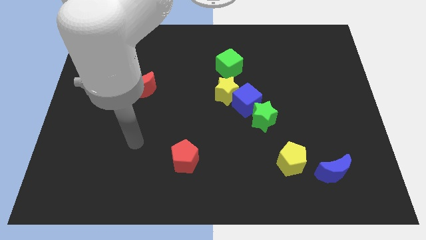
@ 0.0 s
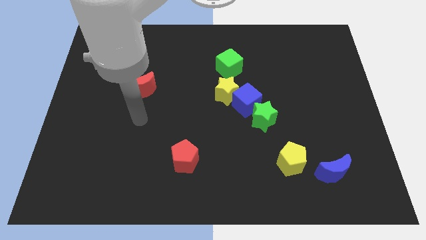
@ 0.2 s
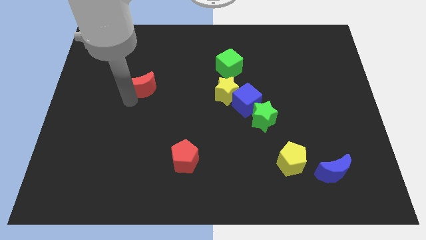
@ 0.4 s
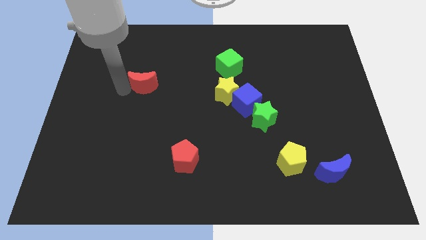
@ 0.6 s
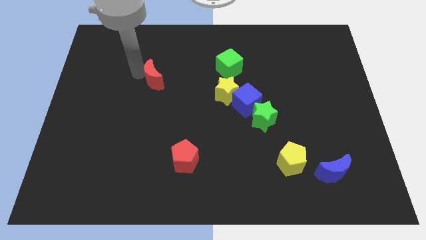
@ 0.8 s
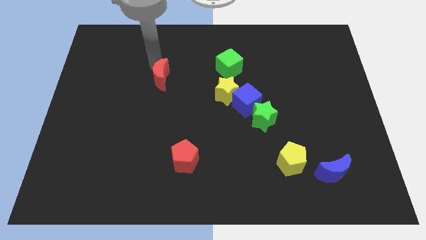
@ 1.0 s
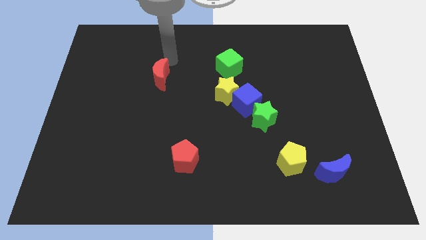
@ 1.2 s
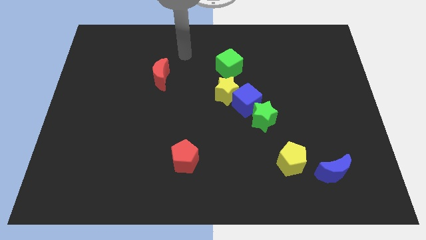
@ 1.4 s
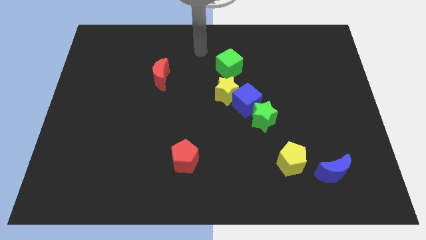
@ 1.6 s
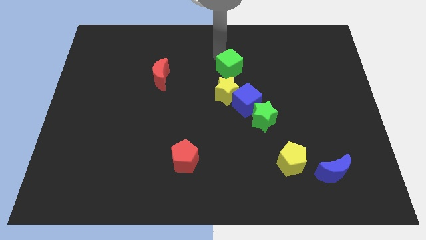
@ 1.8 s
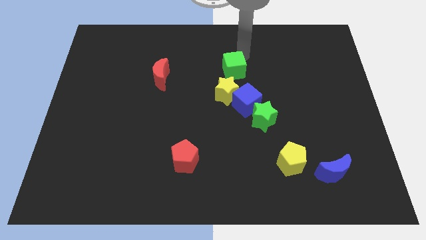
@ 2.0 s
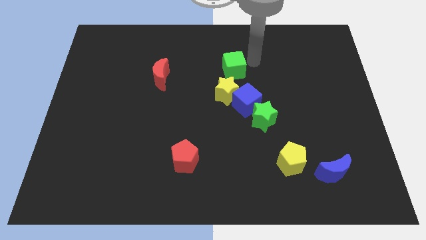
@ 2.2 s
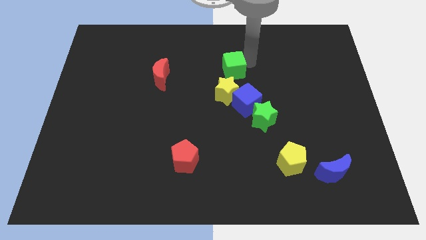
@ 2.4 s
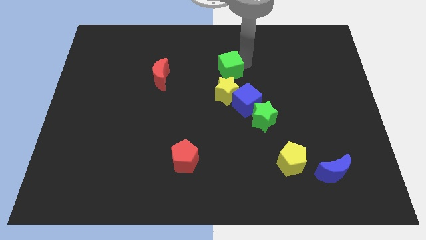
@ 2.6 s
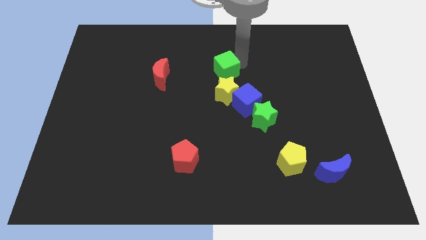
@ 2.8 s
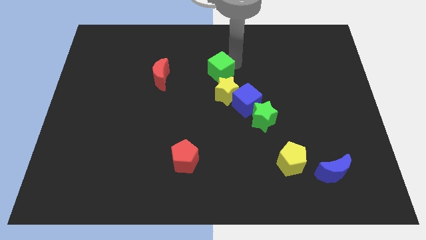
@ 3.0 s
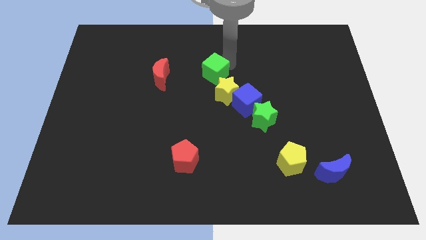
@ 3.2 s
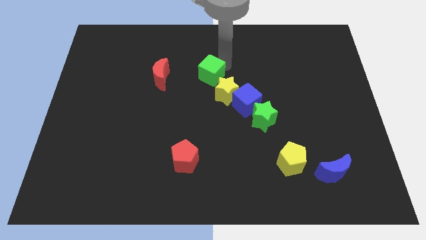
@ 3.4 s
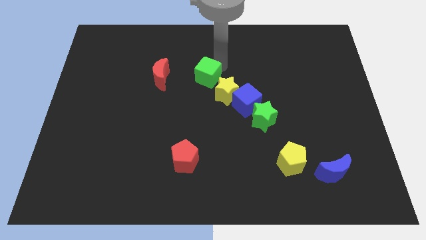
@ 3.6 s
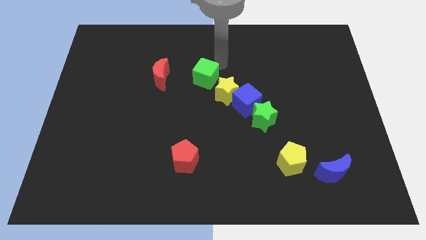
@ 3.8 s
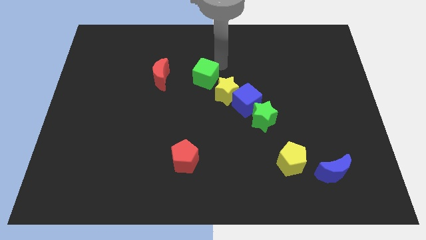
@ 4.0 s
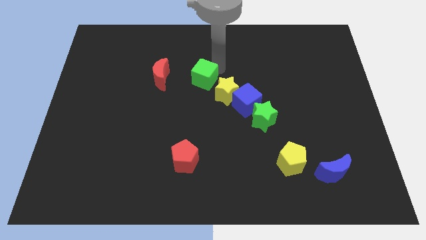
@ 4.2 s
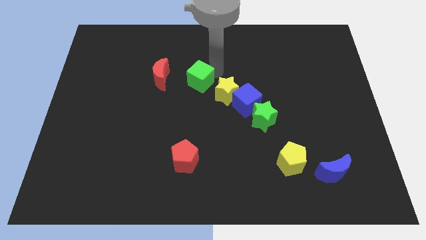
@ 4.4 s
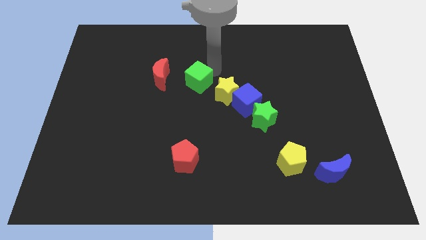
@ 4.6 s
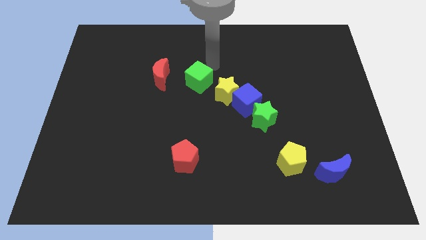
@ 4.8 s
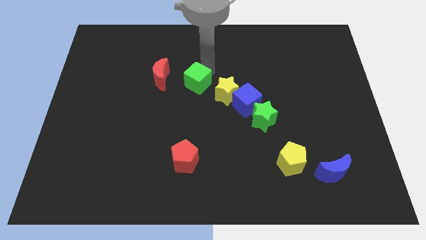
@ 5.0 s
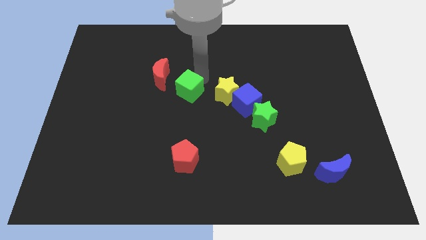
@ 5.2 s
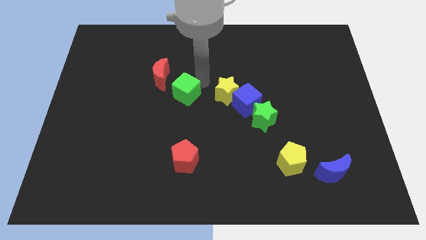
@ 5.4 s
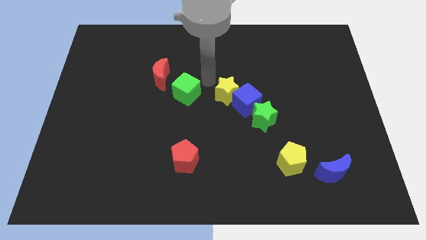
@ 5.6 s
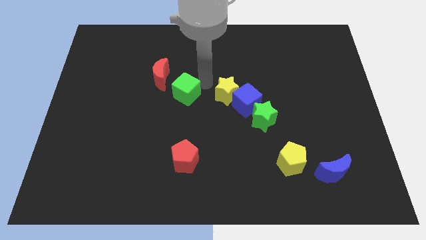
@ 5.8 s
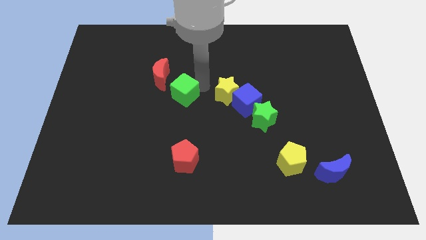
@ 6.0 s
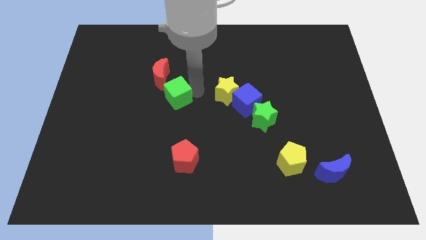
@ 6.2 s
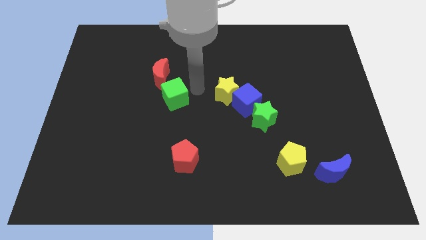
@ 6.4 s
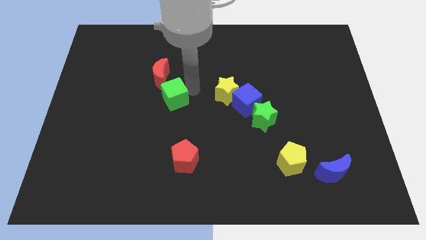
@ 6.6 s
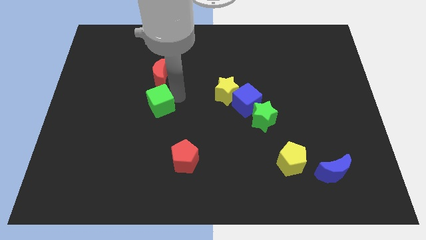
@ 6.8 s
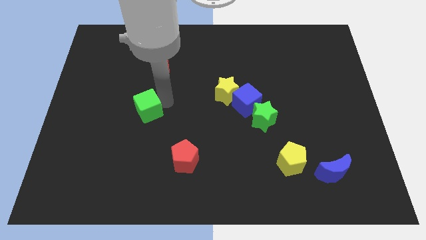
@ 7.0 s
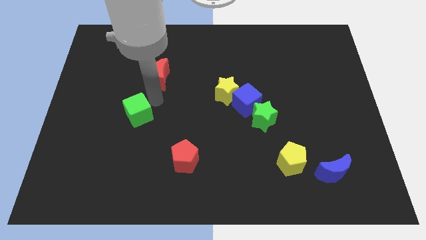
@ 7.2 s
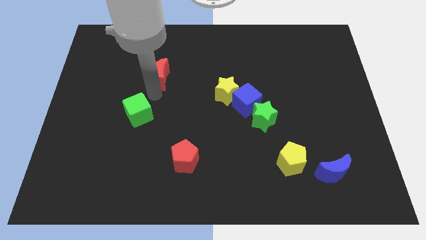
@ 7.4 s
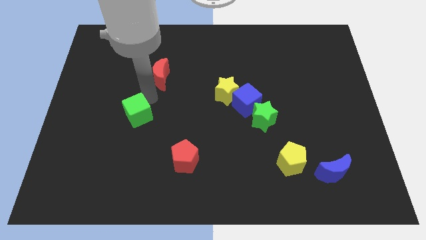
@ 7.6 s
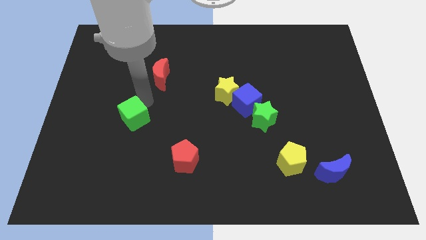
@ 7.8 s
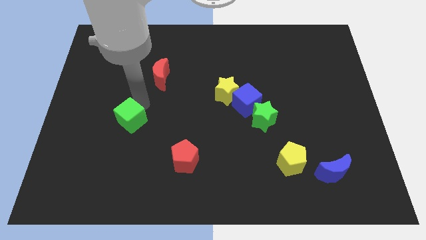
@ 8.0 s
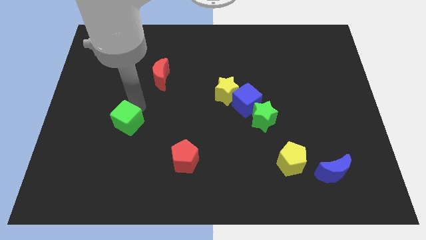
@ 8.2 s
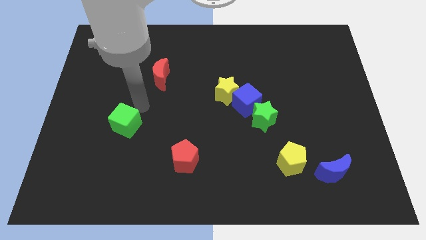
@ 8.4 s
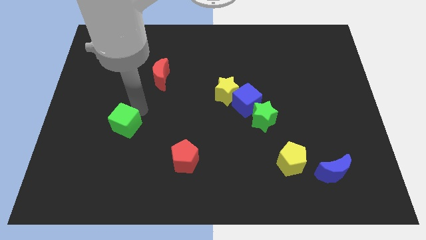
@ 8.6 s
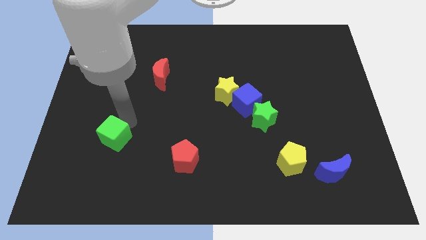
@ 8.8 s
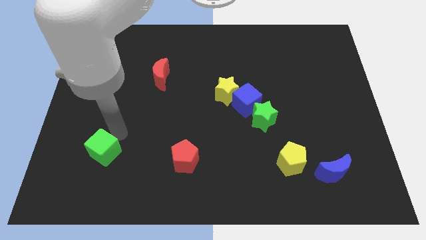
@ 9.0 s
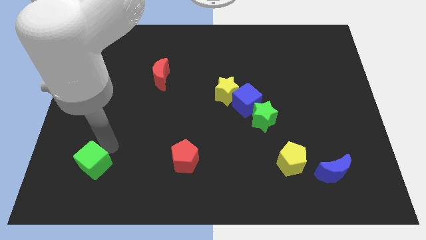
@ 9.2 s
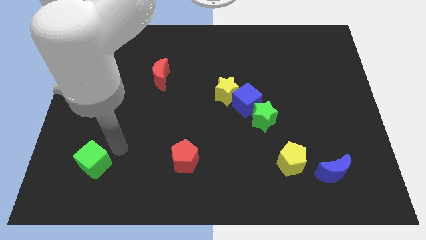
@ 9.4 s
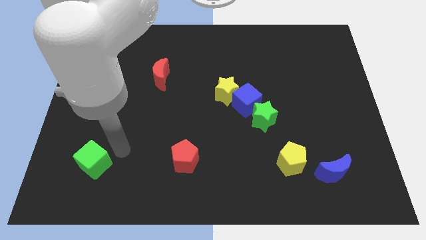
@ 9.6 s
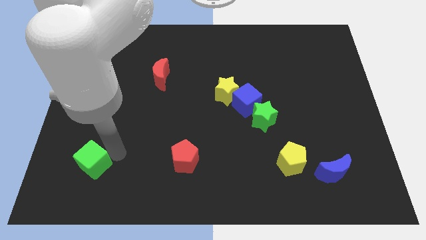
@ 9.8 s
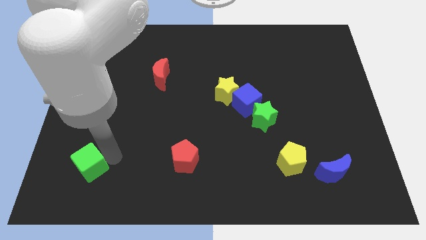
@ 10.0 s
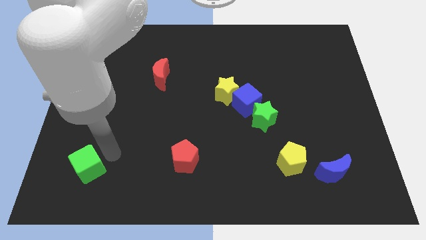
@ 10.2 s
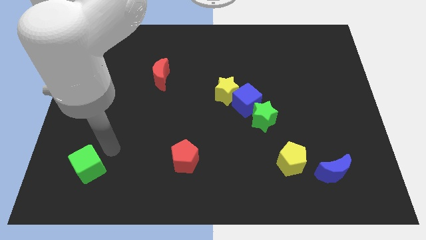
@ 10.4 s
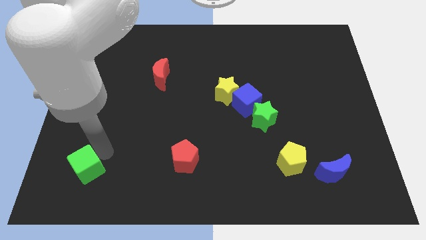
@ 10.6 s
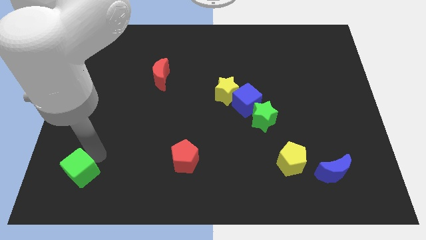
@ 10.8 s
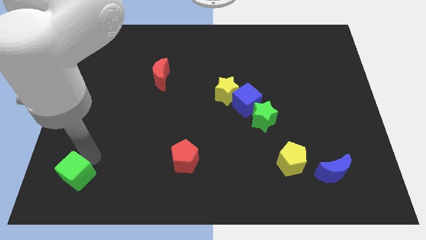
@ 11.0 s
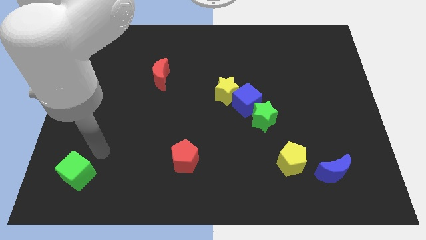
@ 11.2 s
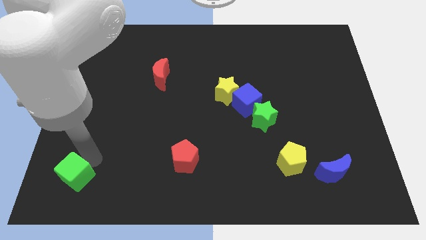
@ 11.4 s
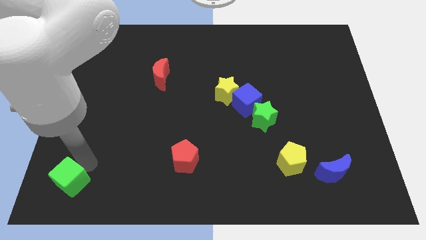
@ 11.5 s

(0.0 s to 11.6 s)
slide the green cube to the bottom left of the board
